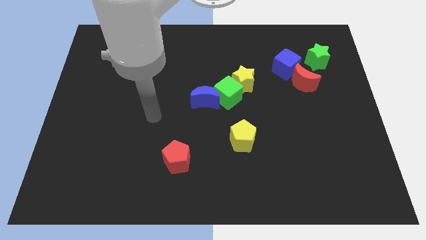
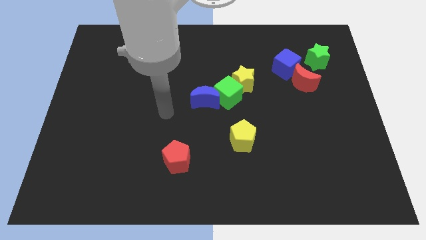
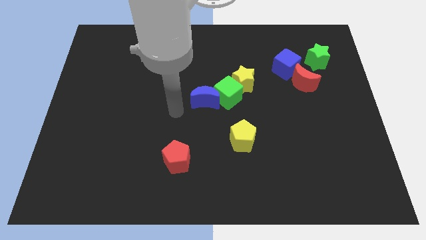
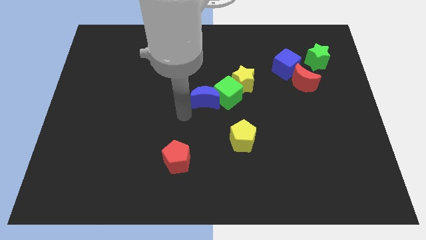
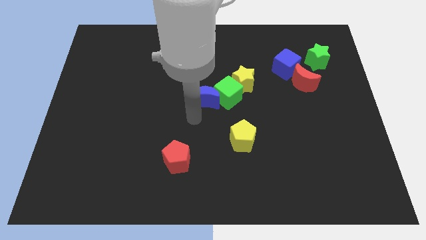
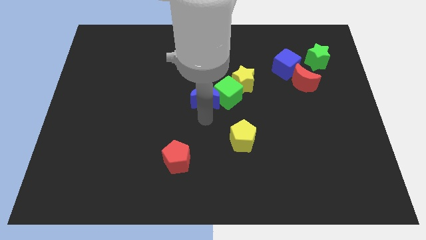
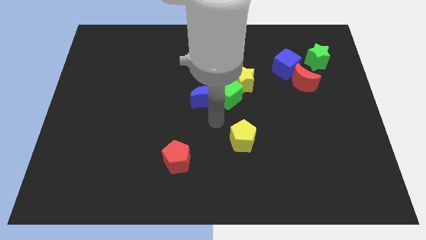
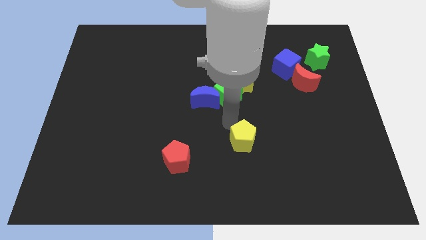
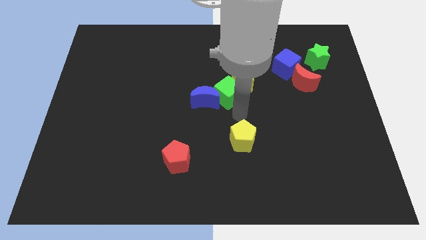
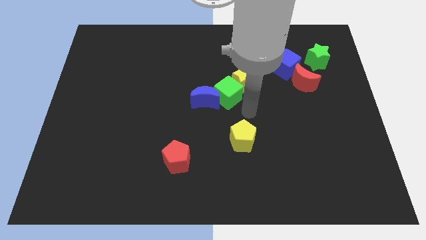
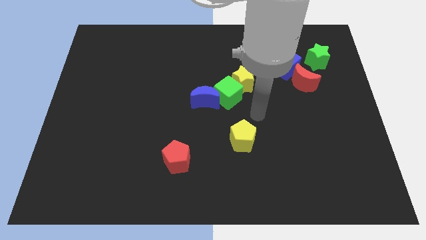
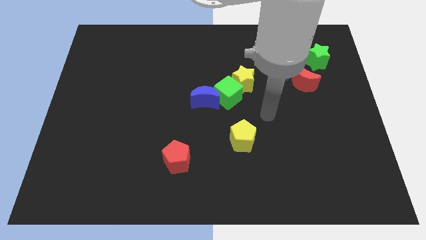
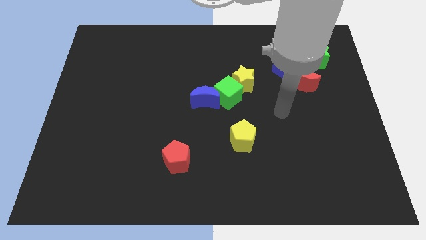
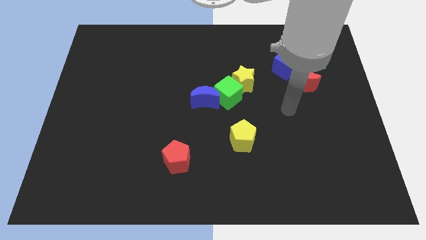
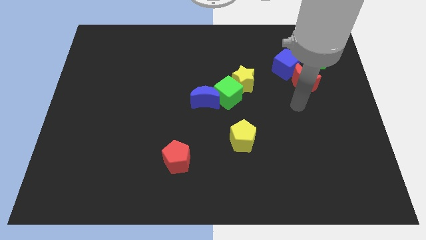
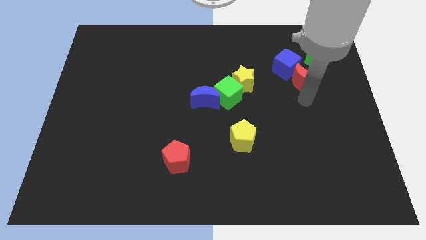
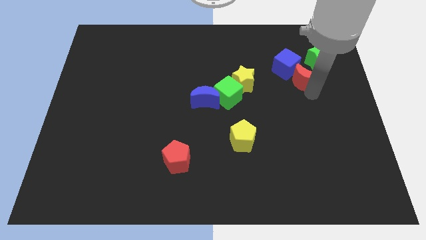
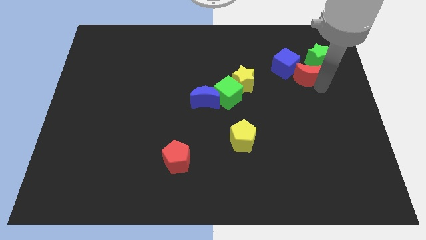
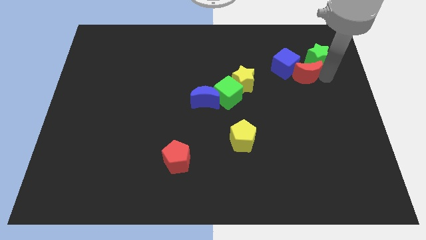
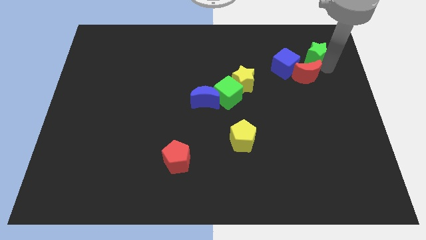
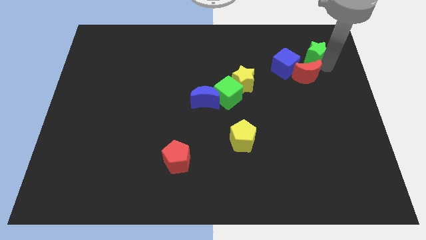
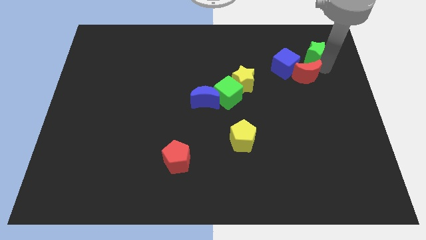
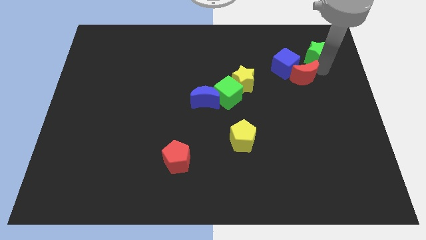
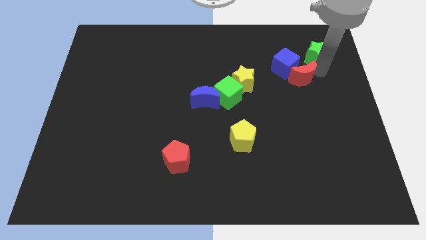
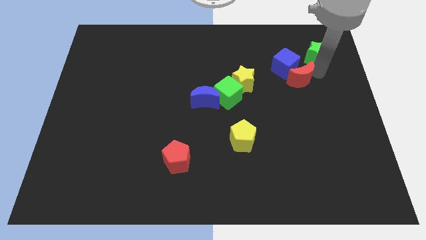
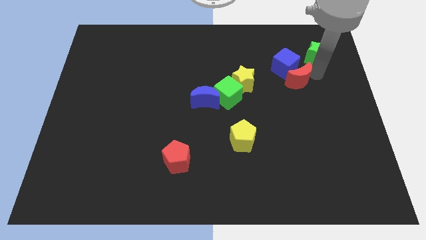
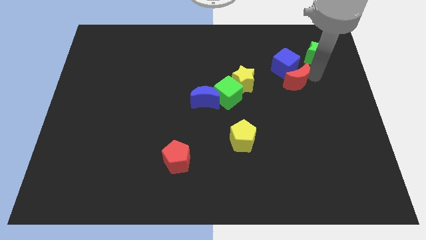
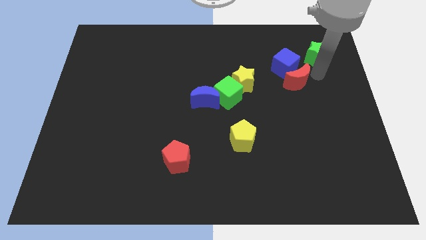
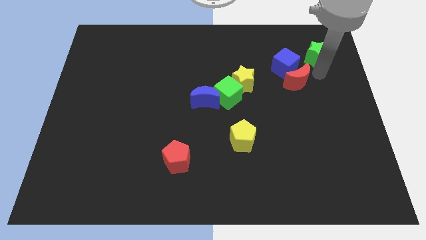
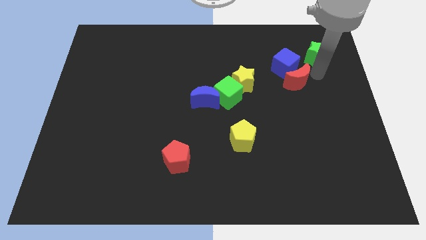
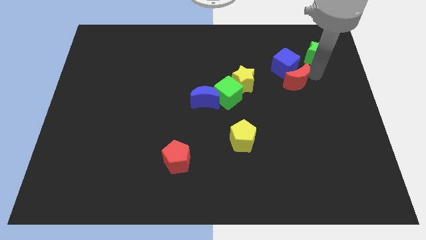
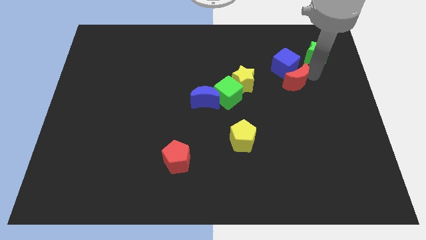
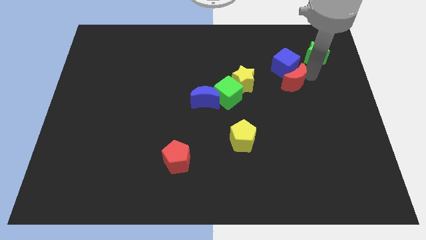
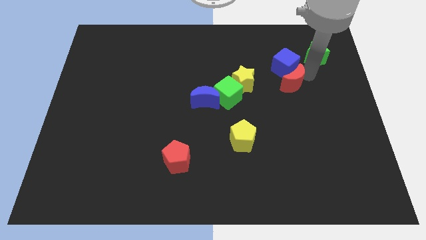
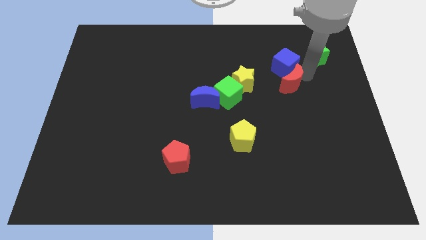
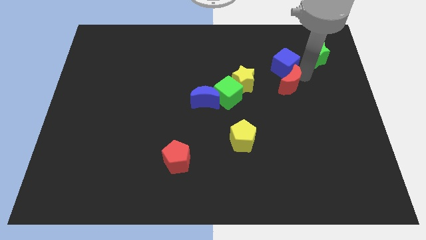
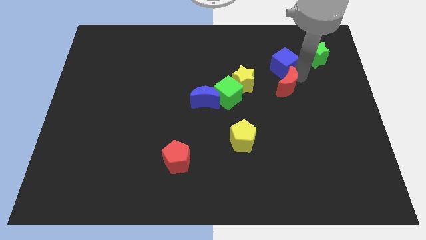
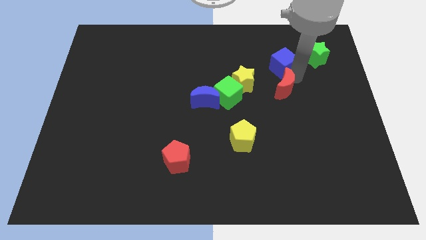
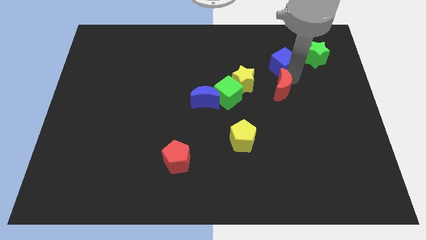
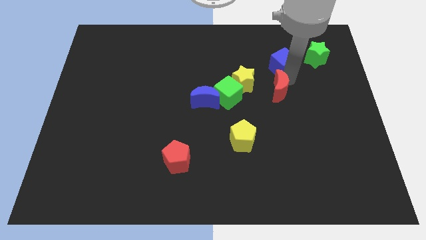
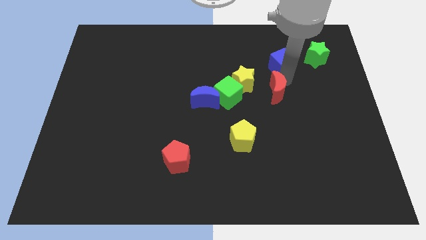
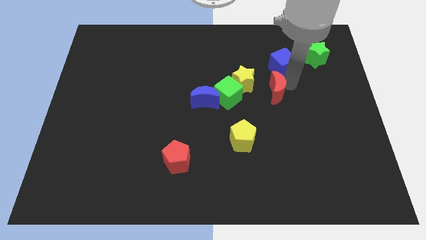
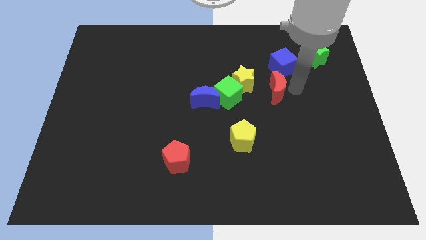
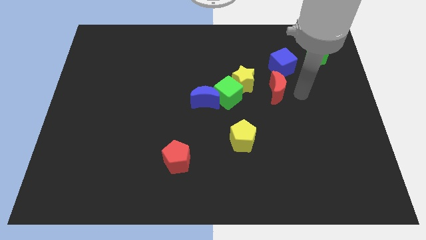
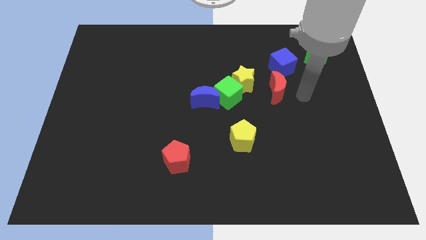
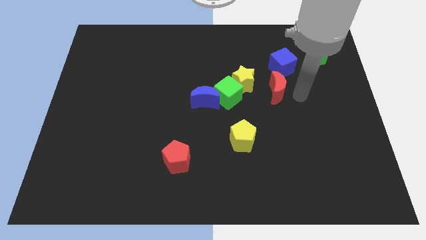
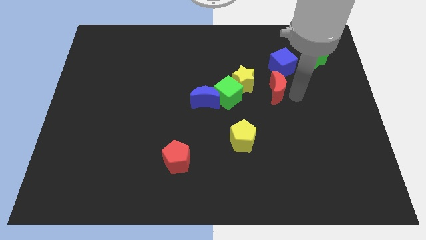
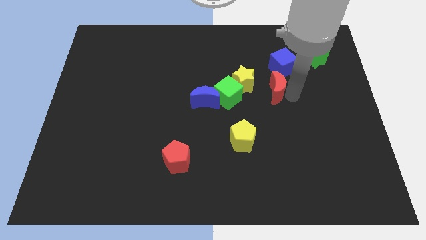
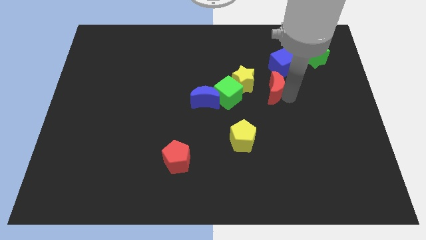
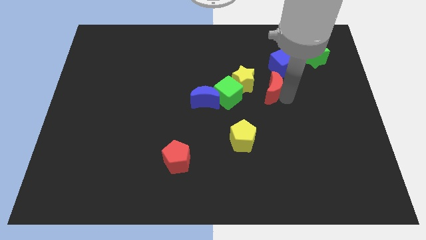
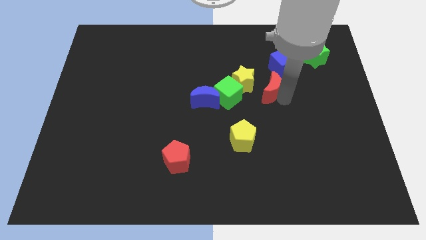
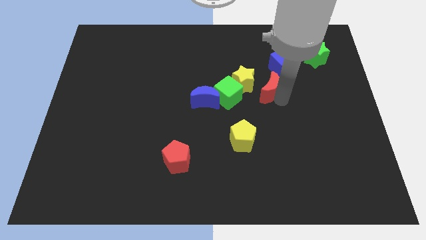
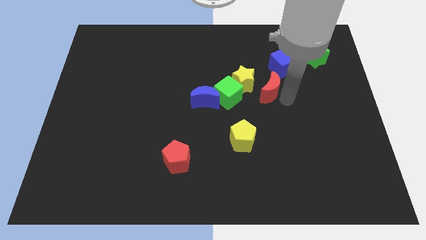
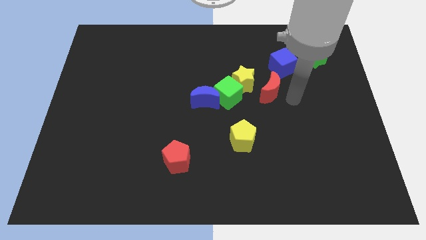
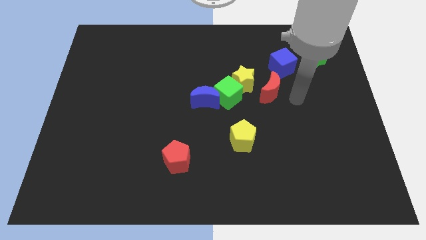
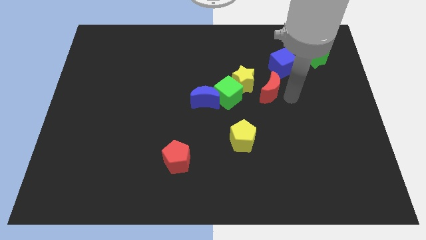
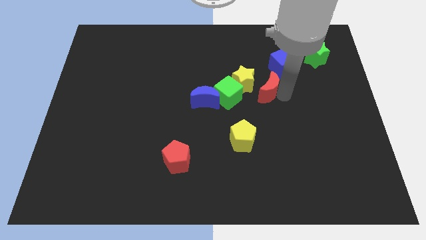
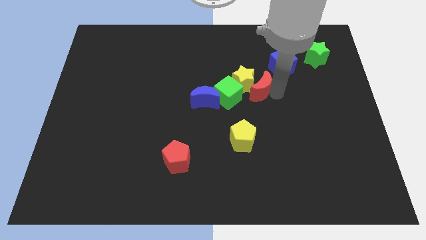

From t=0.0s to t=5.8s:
push the red moon close to the yellow star
